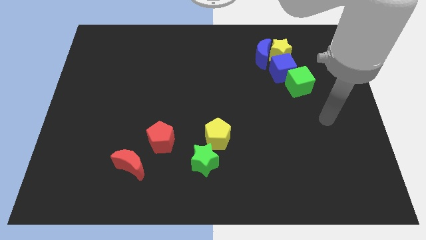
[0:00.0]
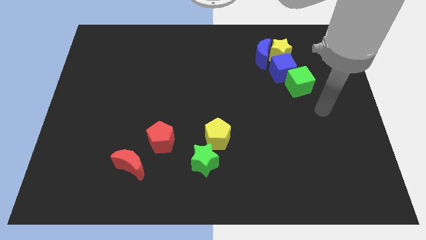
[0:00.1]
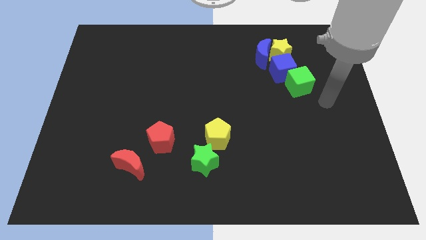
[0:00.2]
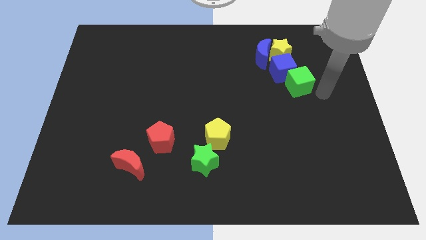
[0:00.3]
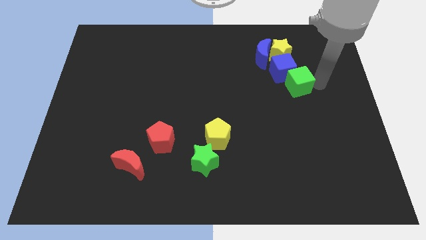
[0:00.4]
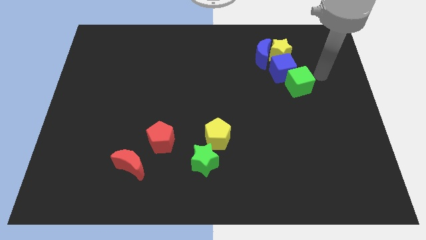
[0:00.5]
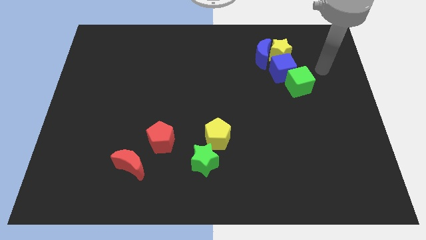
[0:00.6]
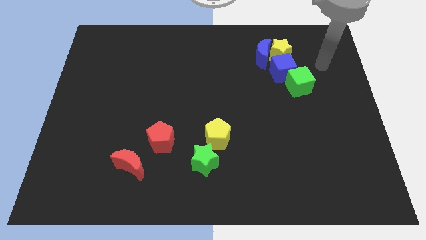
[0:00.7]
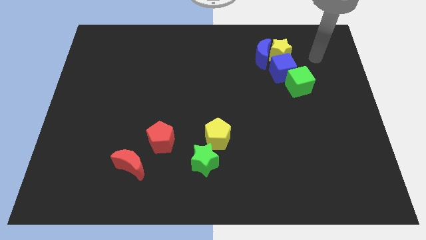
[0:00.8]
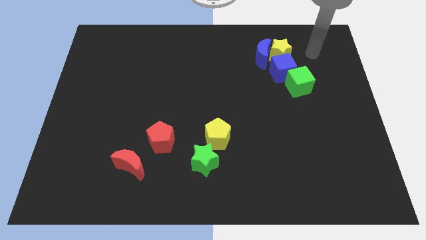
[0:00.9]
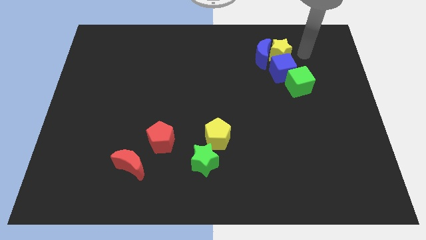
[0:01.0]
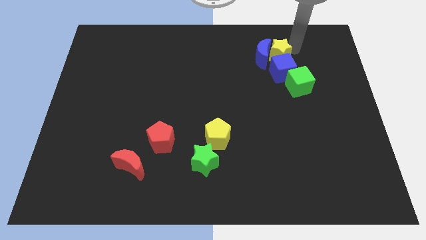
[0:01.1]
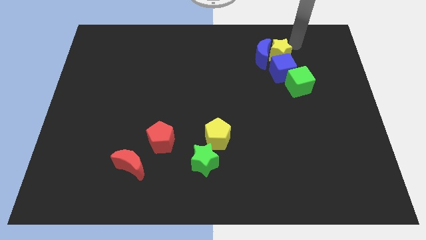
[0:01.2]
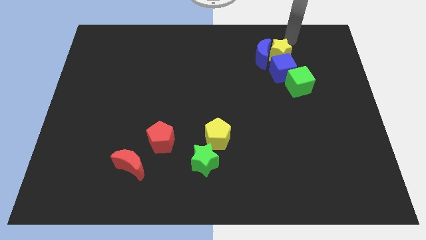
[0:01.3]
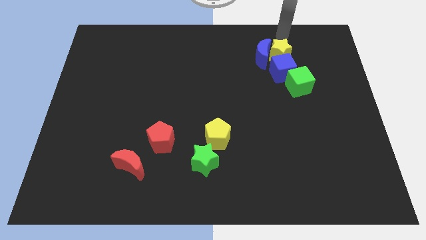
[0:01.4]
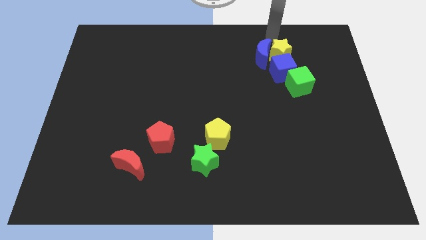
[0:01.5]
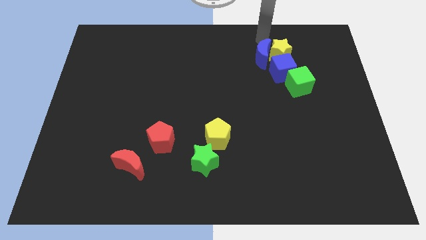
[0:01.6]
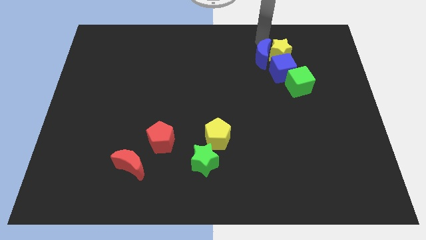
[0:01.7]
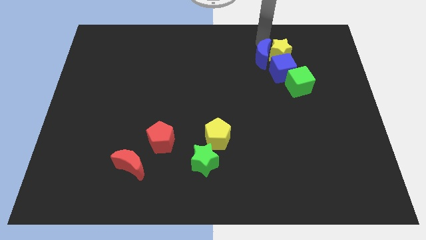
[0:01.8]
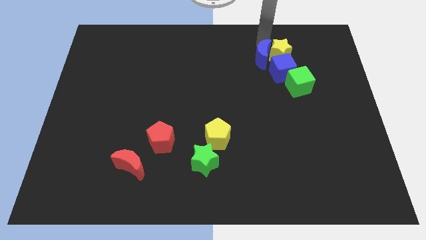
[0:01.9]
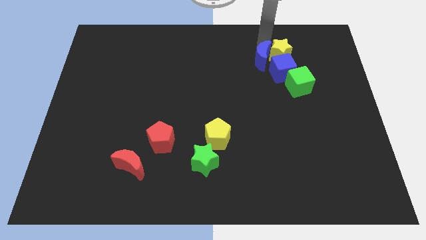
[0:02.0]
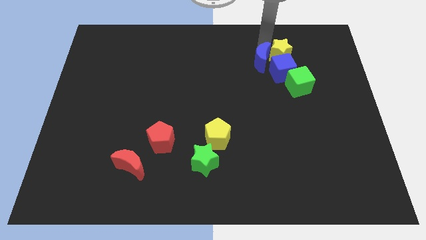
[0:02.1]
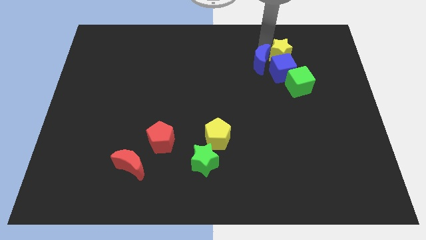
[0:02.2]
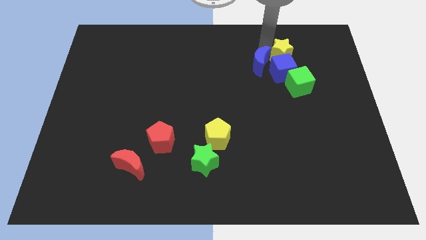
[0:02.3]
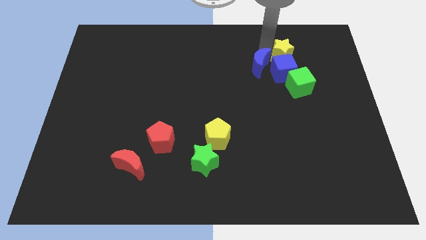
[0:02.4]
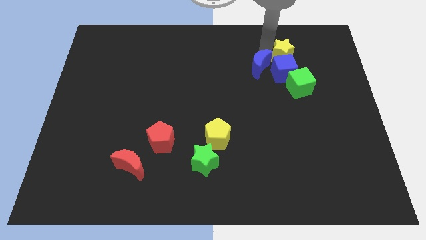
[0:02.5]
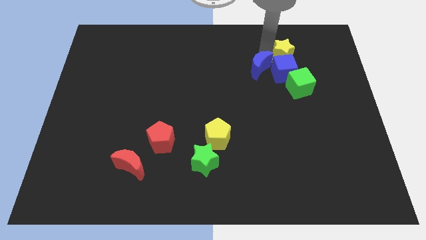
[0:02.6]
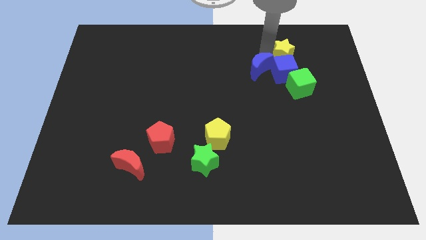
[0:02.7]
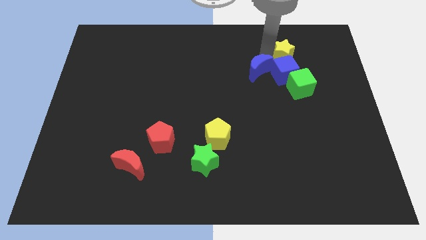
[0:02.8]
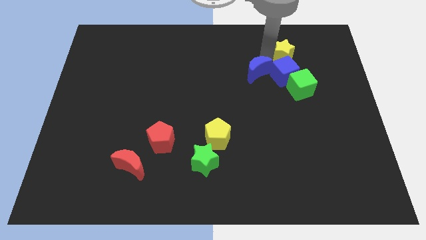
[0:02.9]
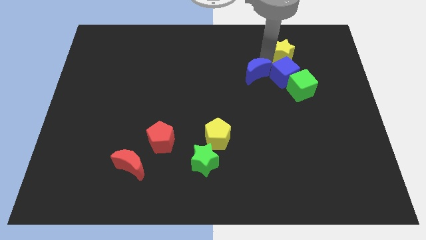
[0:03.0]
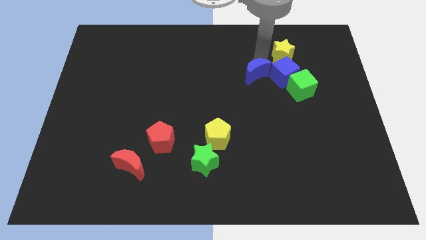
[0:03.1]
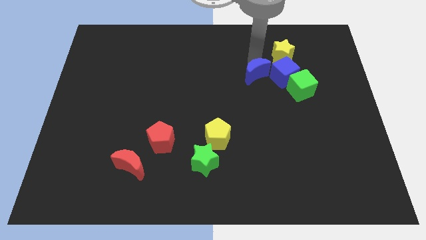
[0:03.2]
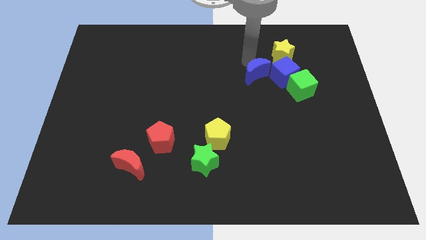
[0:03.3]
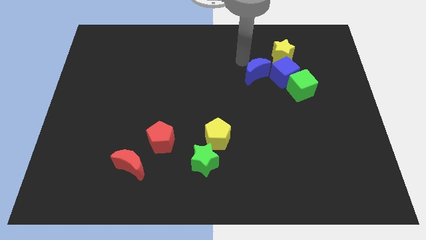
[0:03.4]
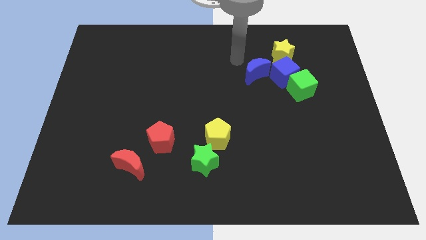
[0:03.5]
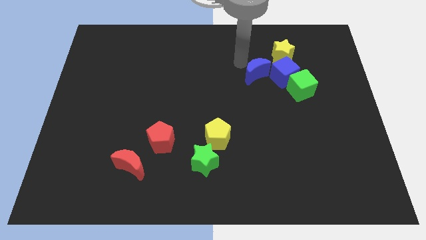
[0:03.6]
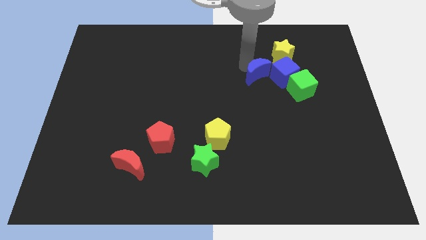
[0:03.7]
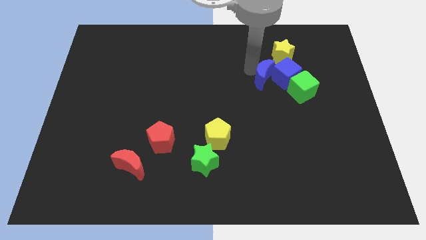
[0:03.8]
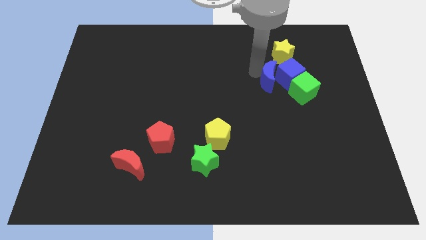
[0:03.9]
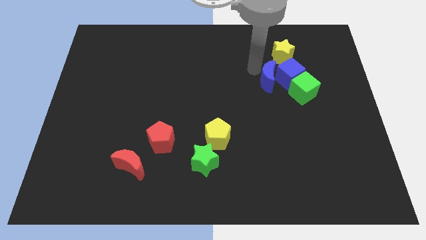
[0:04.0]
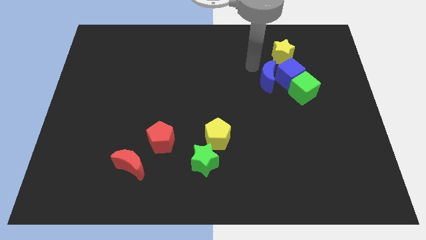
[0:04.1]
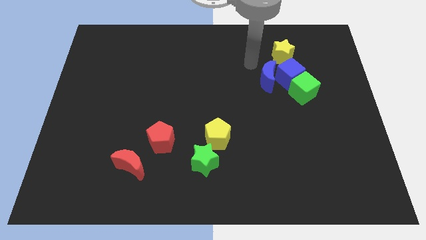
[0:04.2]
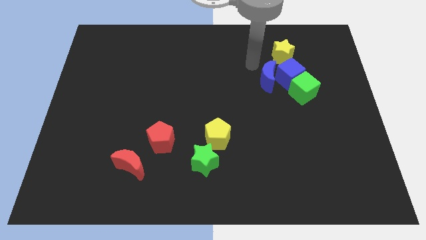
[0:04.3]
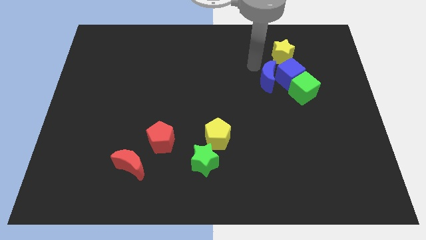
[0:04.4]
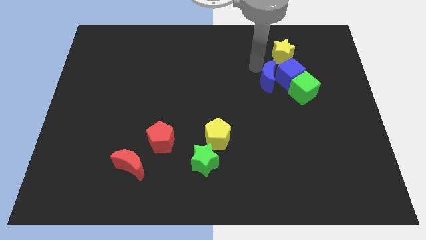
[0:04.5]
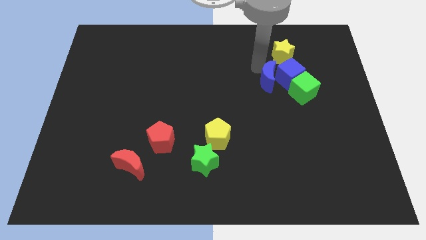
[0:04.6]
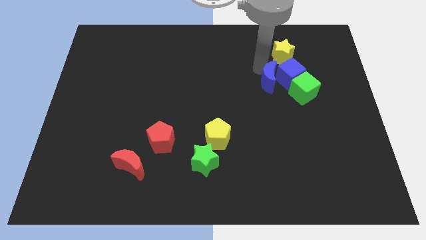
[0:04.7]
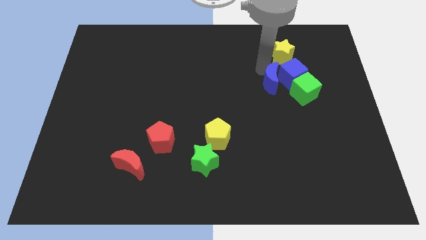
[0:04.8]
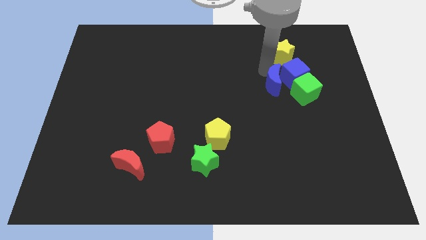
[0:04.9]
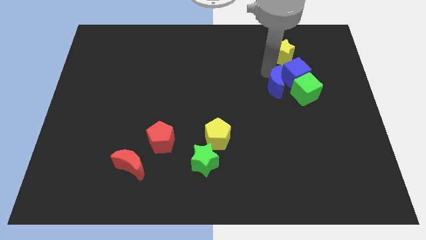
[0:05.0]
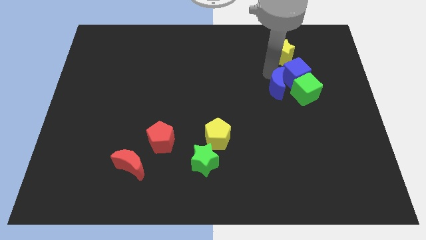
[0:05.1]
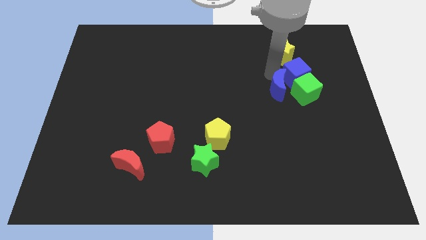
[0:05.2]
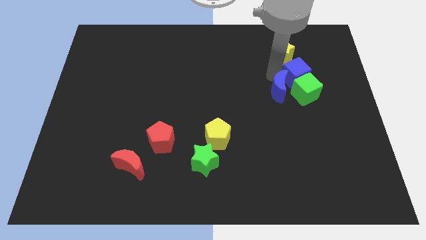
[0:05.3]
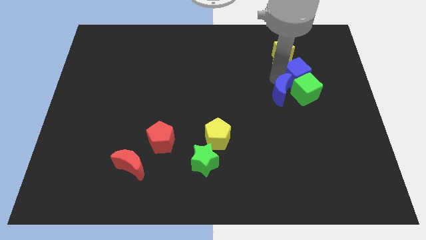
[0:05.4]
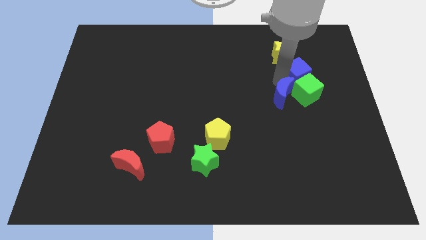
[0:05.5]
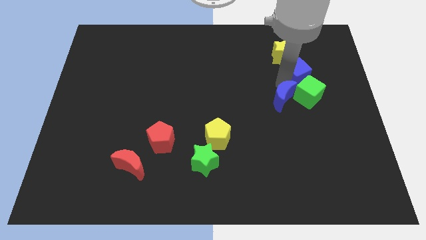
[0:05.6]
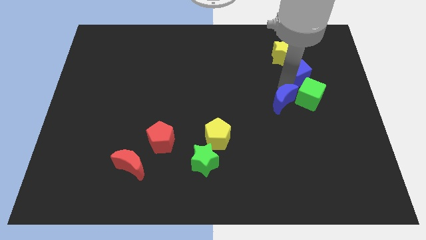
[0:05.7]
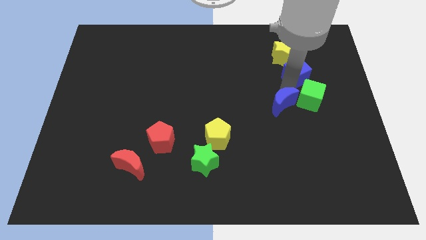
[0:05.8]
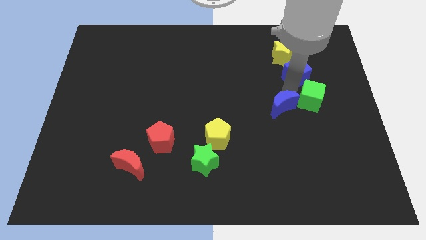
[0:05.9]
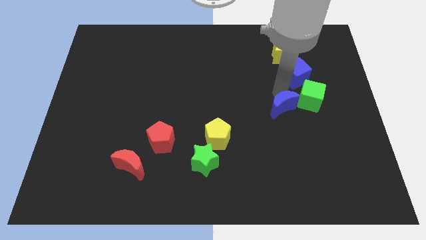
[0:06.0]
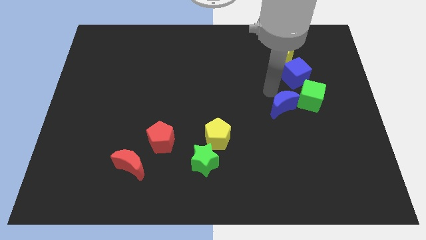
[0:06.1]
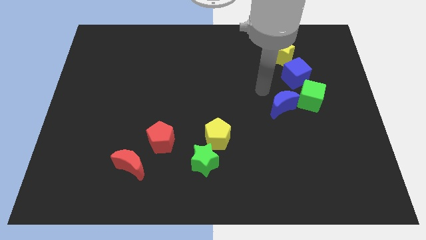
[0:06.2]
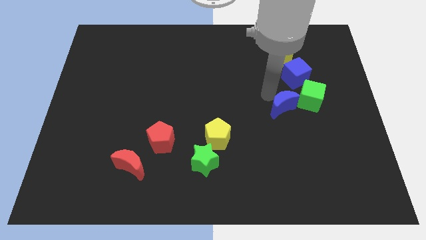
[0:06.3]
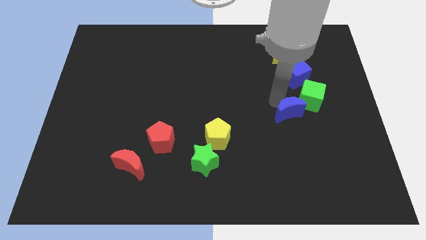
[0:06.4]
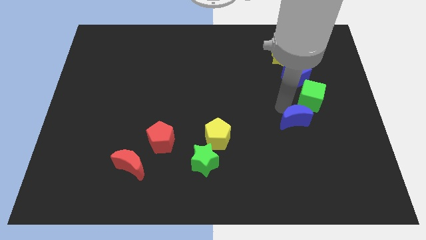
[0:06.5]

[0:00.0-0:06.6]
push the blue moon to the bottom of the green cube

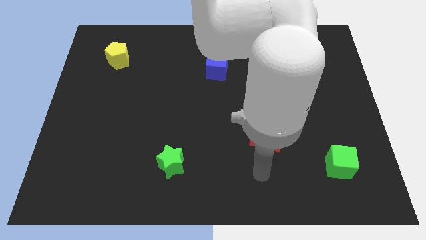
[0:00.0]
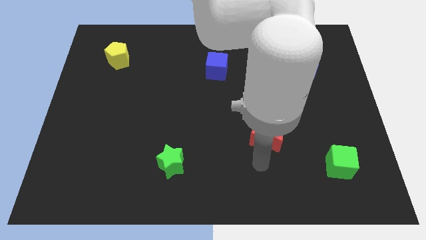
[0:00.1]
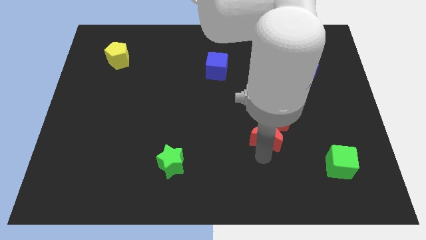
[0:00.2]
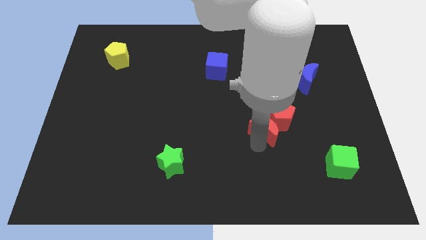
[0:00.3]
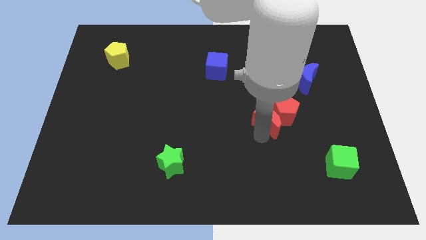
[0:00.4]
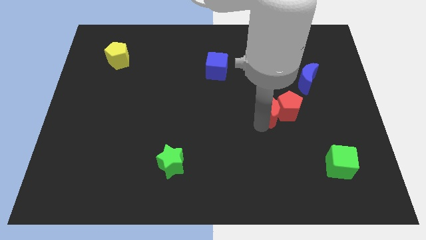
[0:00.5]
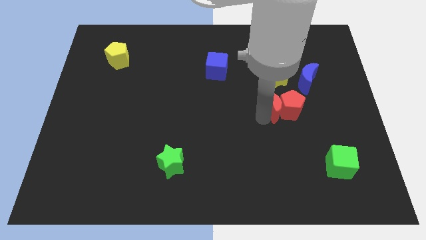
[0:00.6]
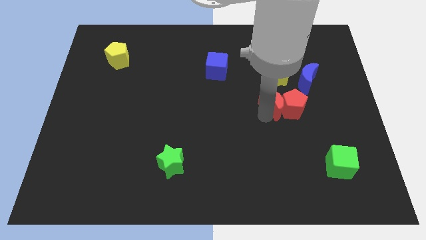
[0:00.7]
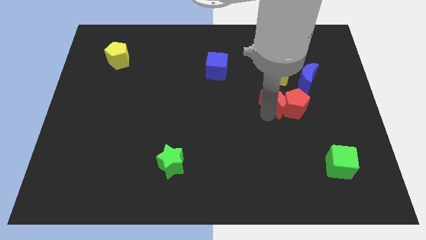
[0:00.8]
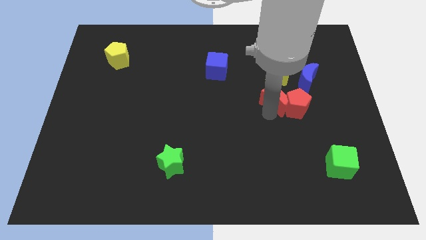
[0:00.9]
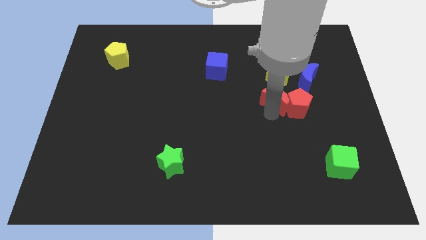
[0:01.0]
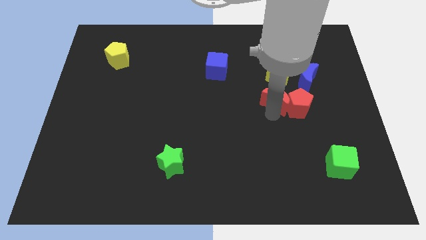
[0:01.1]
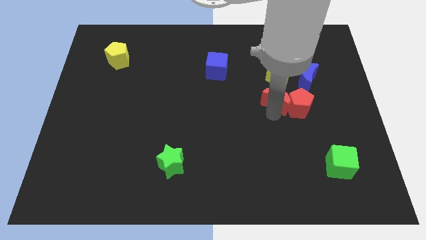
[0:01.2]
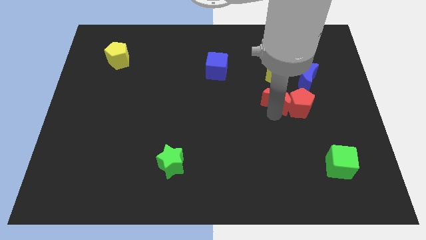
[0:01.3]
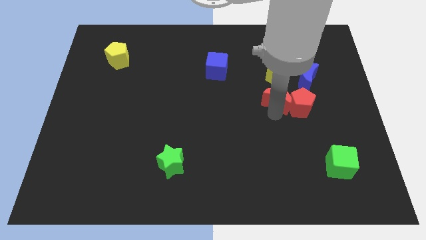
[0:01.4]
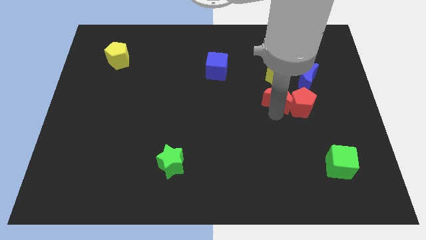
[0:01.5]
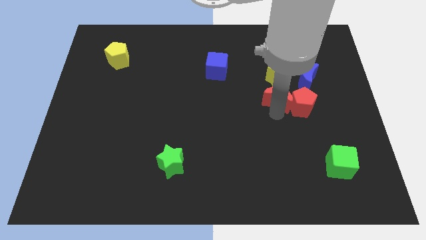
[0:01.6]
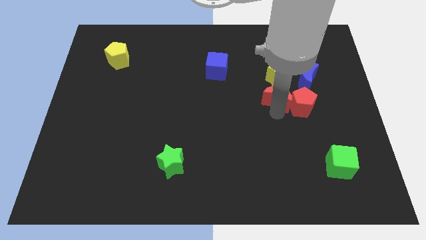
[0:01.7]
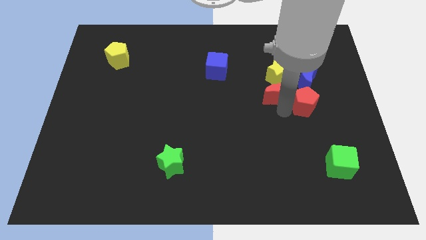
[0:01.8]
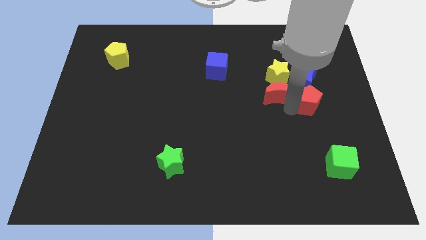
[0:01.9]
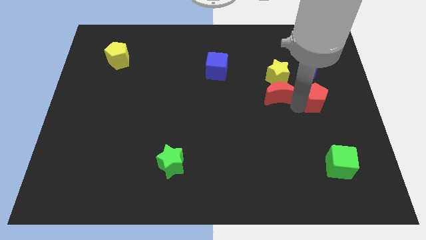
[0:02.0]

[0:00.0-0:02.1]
move the red pentagon to the bottom right side of the blue moon
